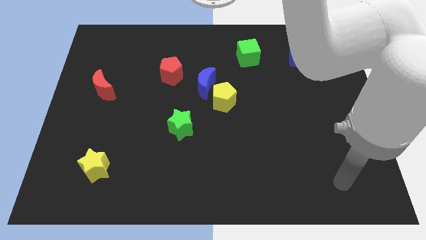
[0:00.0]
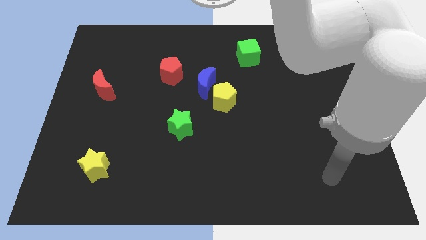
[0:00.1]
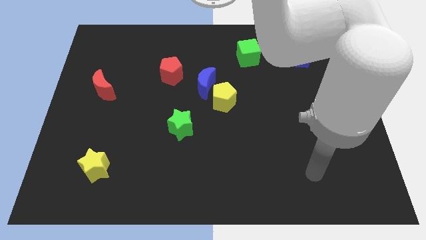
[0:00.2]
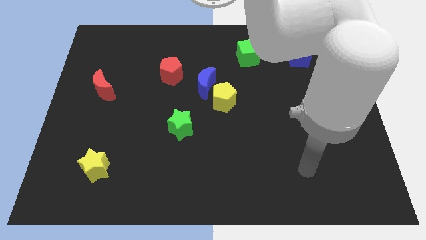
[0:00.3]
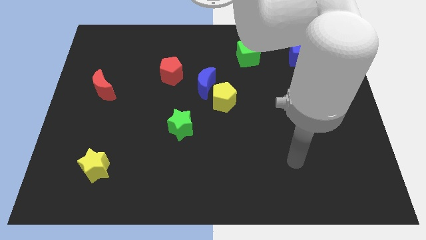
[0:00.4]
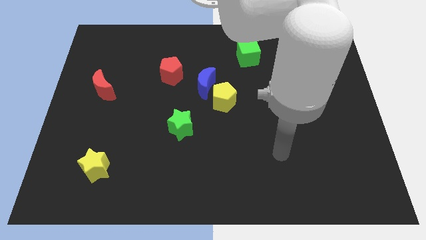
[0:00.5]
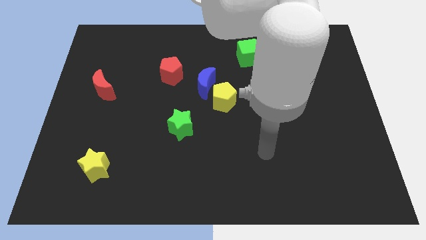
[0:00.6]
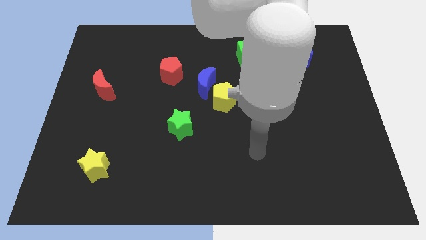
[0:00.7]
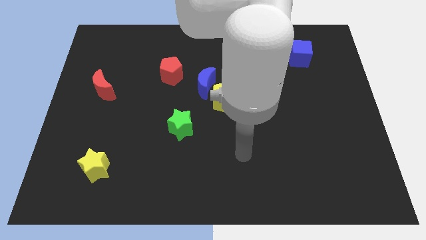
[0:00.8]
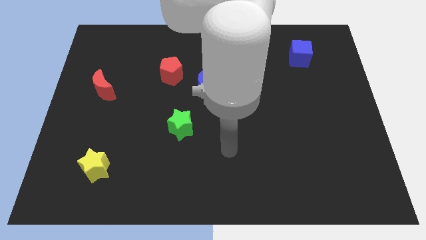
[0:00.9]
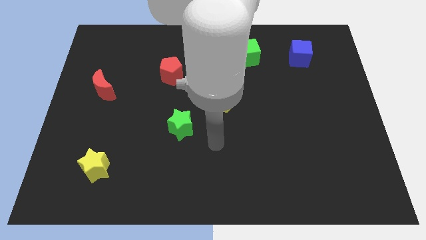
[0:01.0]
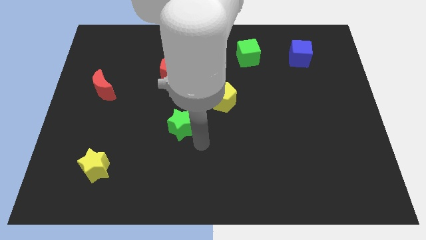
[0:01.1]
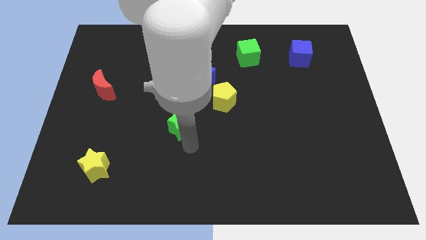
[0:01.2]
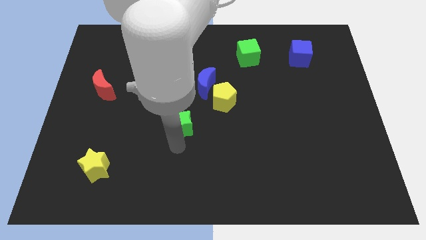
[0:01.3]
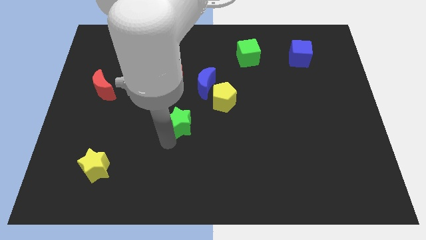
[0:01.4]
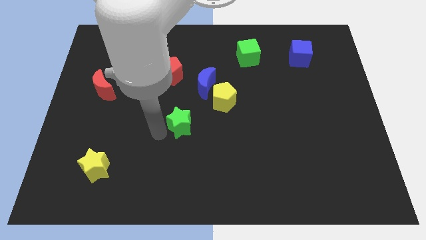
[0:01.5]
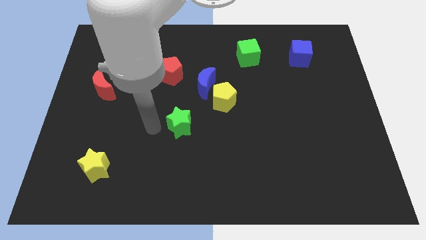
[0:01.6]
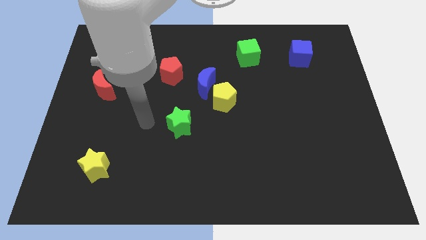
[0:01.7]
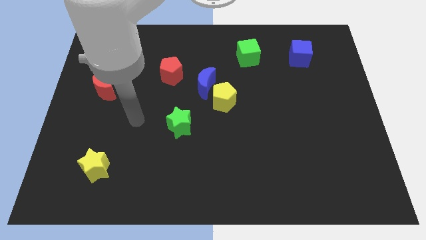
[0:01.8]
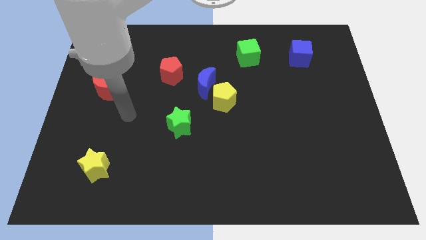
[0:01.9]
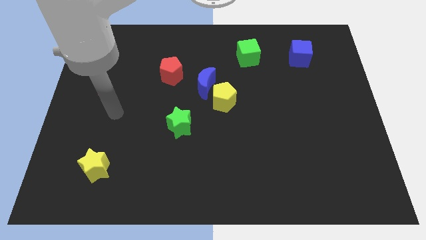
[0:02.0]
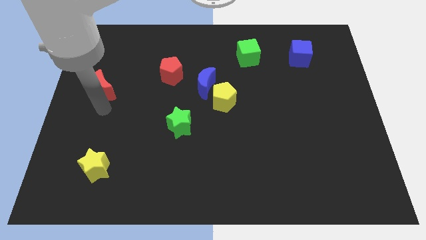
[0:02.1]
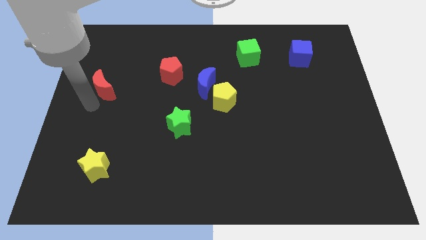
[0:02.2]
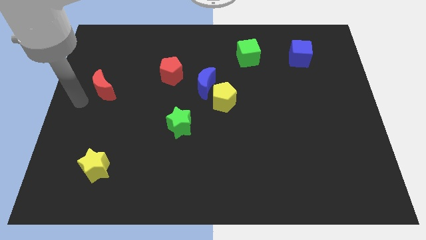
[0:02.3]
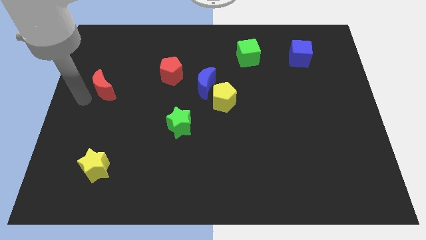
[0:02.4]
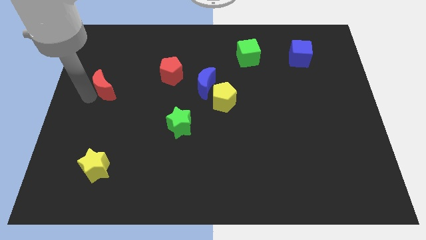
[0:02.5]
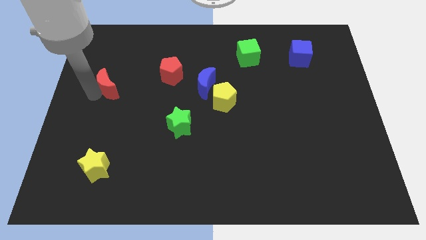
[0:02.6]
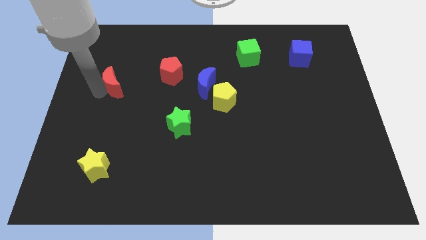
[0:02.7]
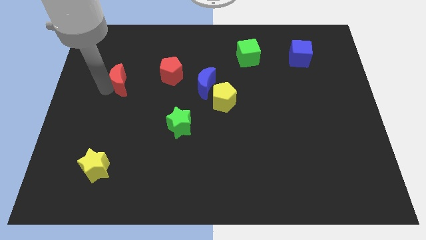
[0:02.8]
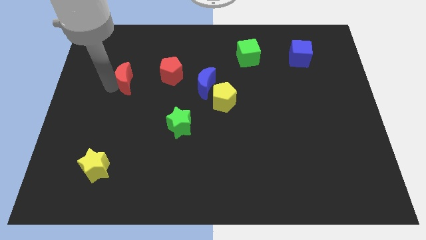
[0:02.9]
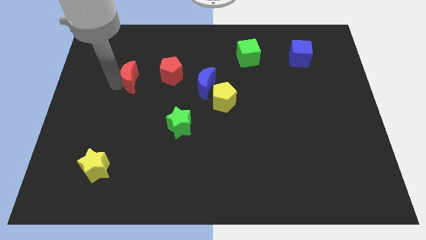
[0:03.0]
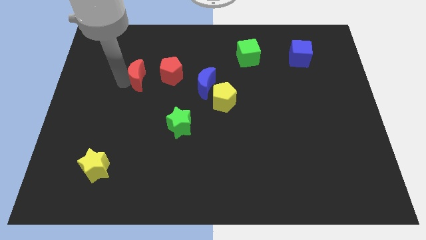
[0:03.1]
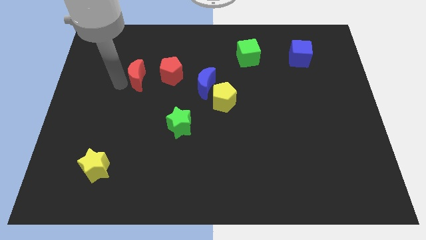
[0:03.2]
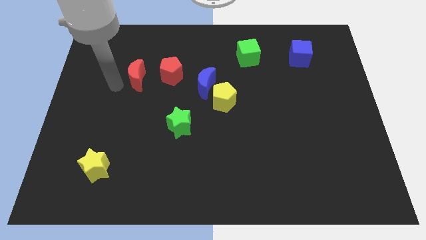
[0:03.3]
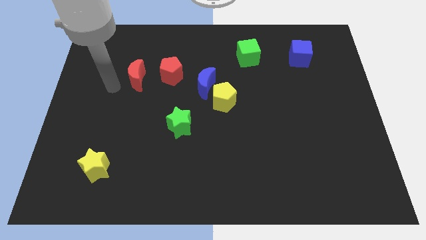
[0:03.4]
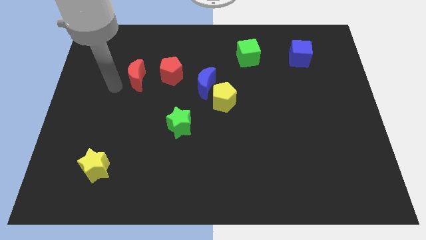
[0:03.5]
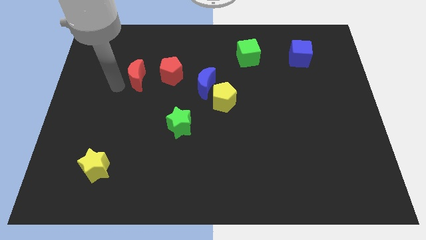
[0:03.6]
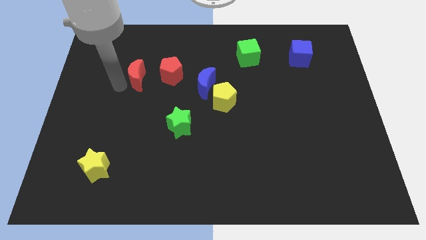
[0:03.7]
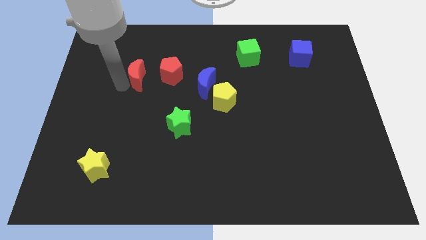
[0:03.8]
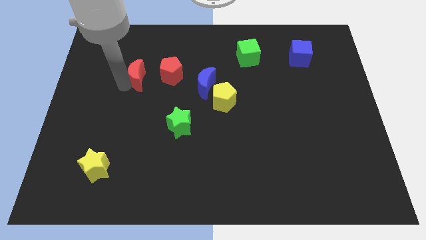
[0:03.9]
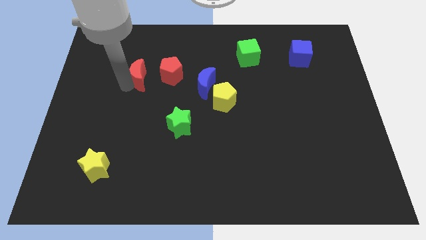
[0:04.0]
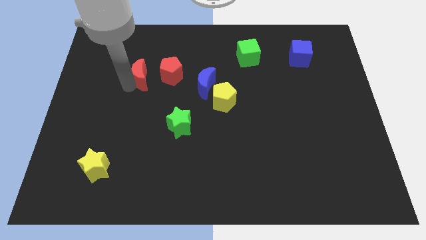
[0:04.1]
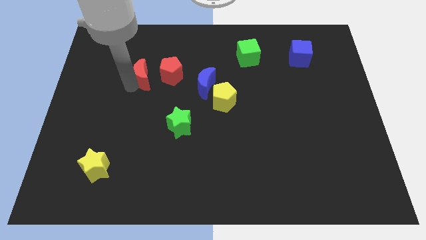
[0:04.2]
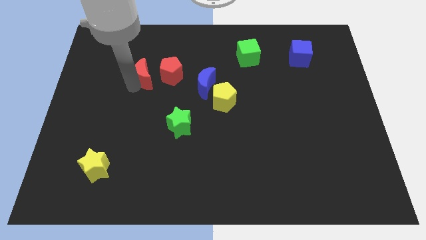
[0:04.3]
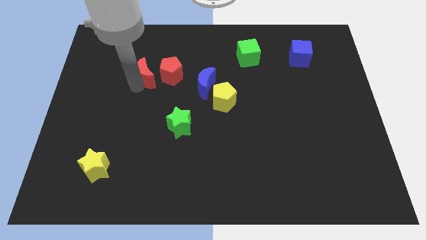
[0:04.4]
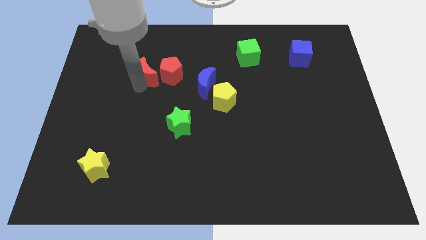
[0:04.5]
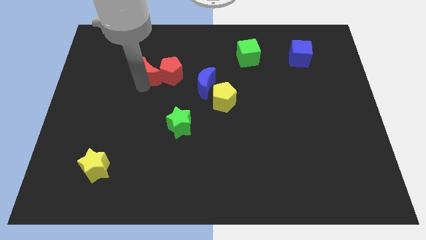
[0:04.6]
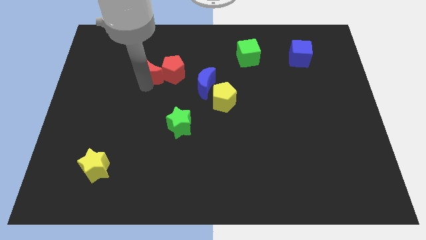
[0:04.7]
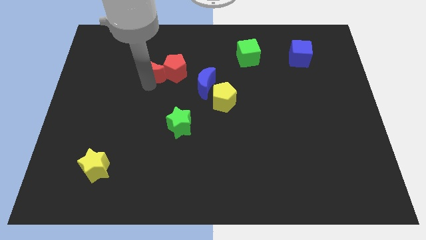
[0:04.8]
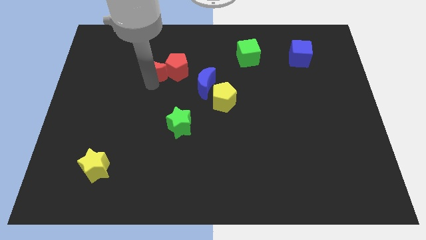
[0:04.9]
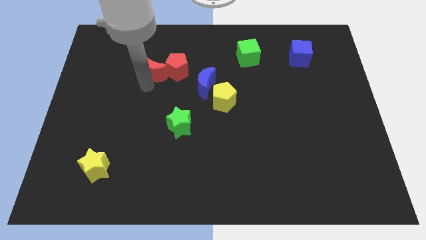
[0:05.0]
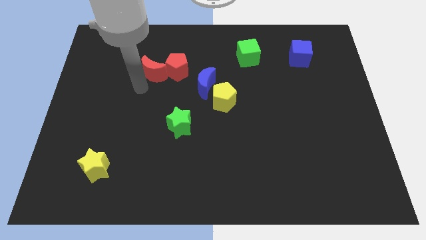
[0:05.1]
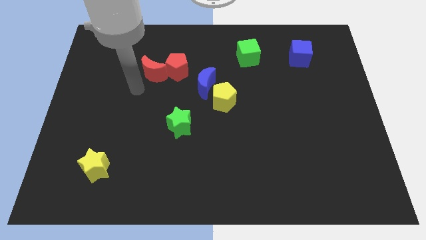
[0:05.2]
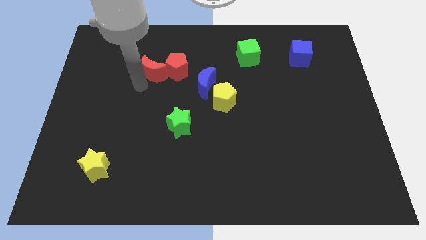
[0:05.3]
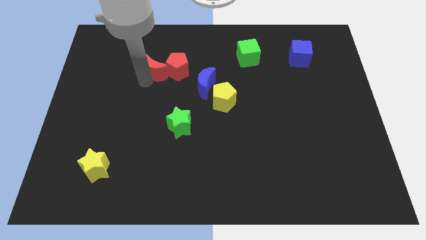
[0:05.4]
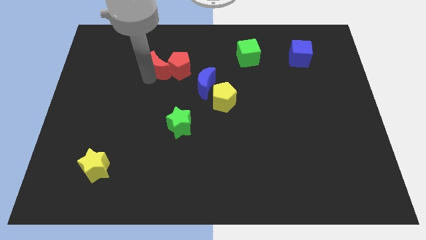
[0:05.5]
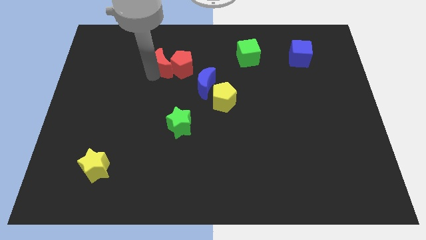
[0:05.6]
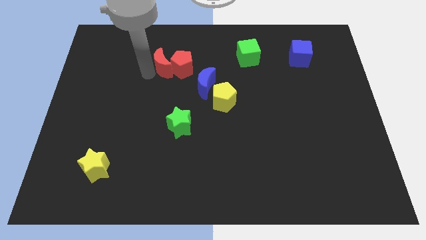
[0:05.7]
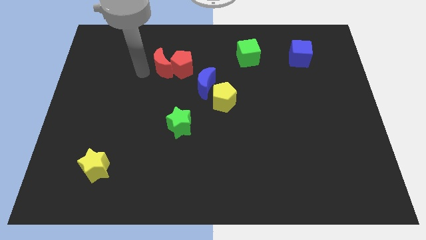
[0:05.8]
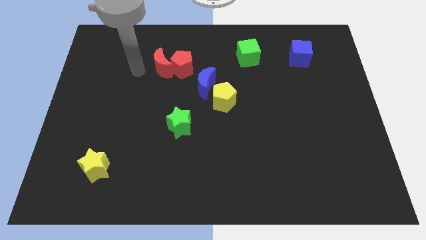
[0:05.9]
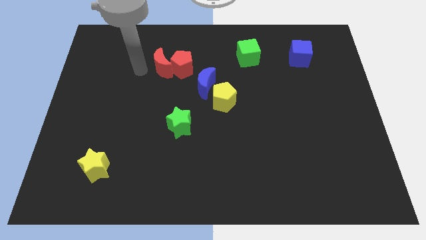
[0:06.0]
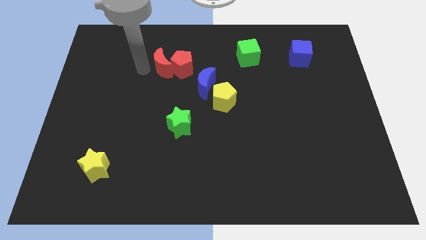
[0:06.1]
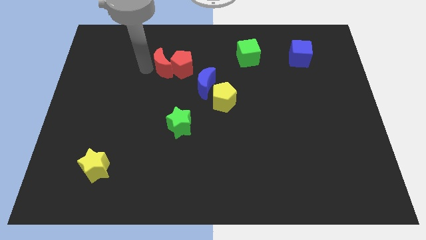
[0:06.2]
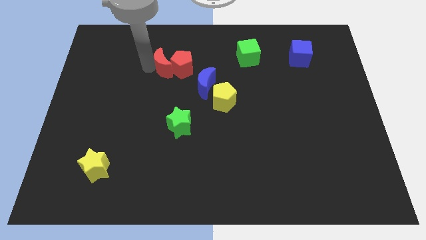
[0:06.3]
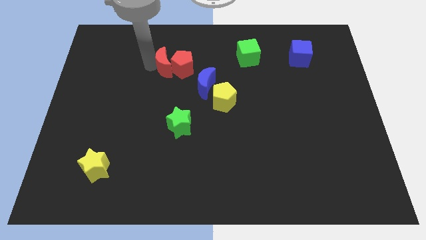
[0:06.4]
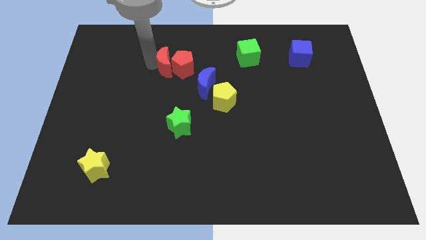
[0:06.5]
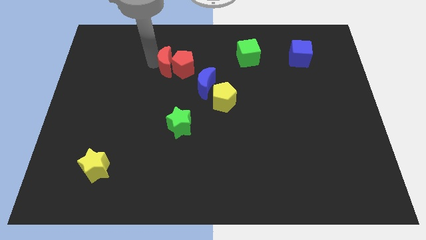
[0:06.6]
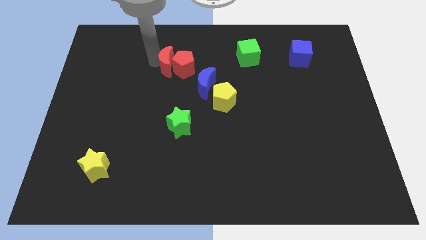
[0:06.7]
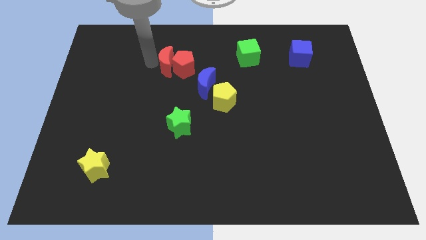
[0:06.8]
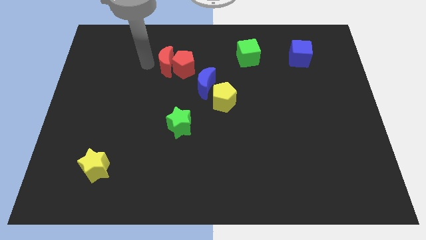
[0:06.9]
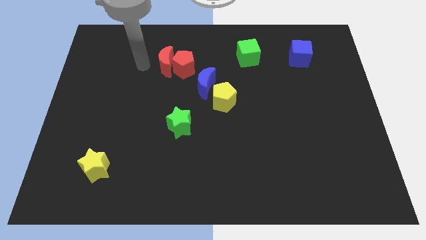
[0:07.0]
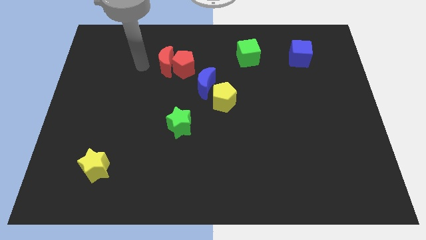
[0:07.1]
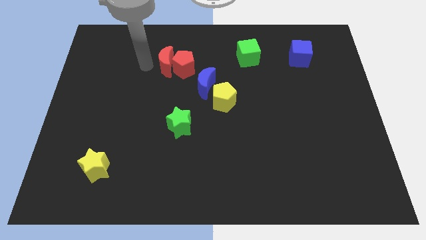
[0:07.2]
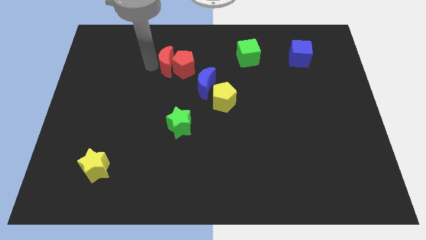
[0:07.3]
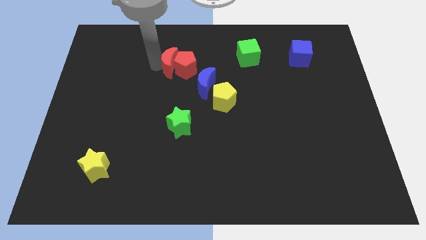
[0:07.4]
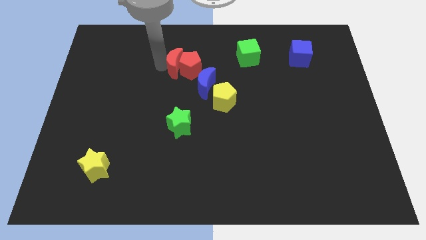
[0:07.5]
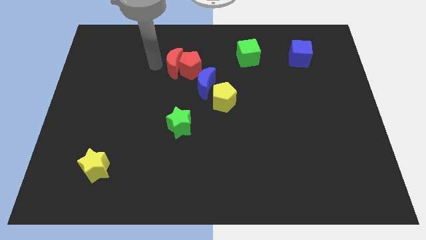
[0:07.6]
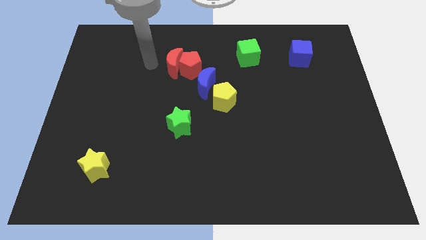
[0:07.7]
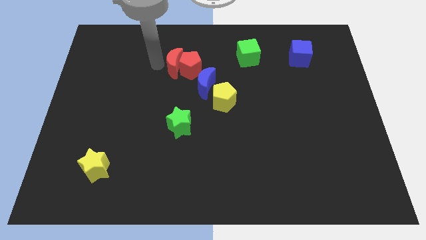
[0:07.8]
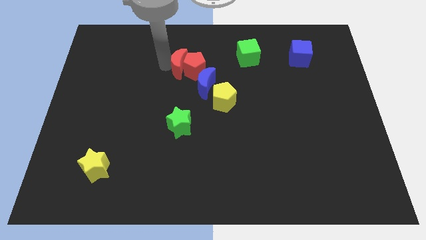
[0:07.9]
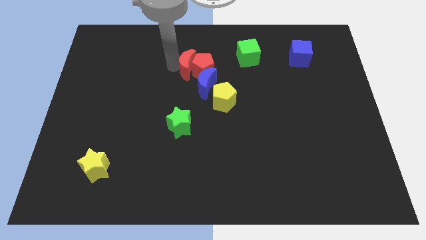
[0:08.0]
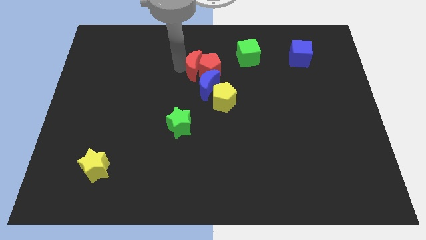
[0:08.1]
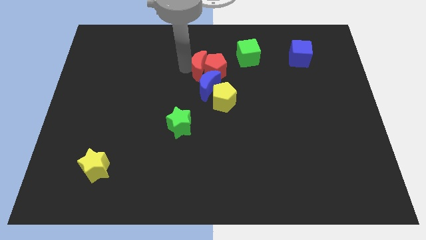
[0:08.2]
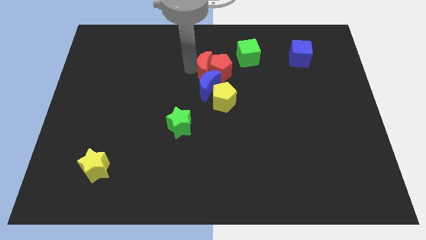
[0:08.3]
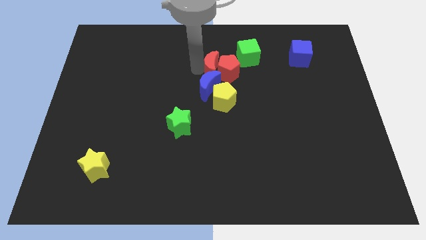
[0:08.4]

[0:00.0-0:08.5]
move the red moon to the bottom left of the green cube
